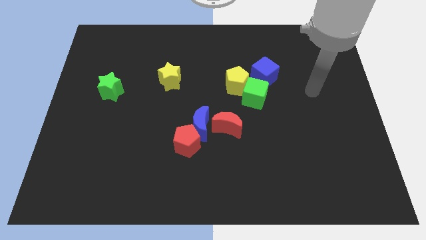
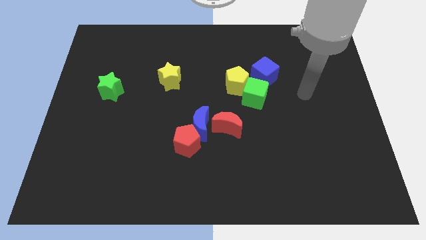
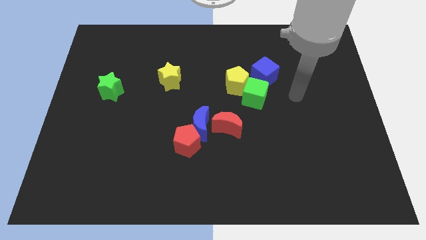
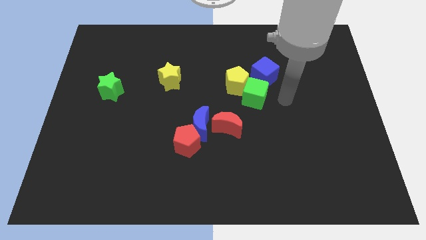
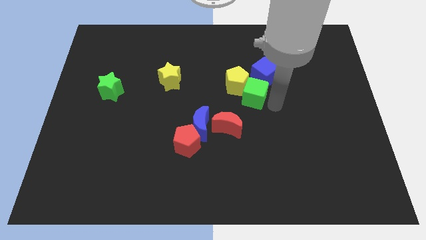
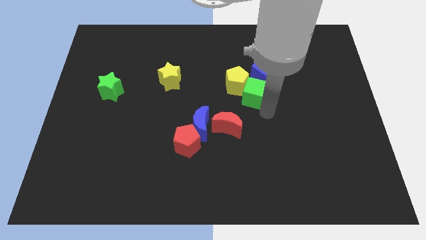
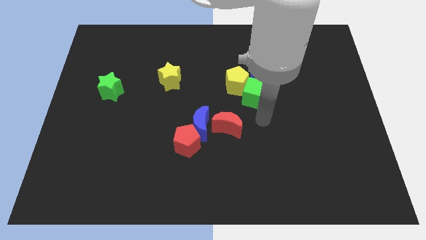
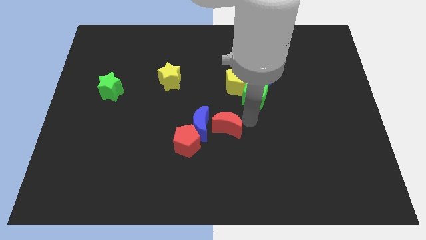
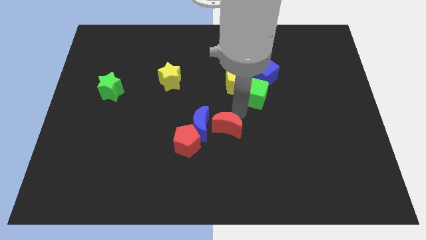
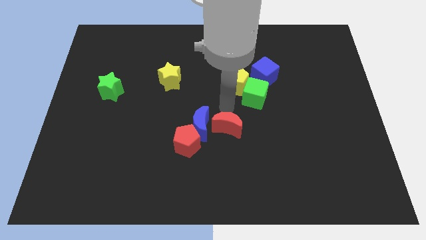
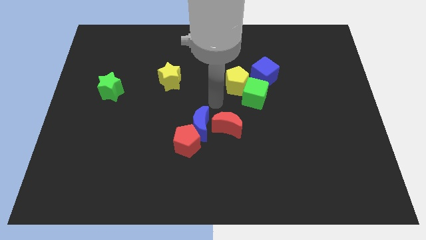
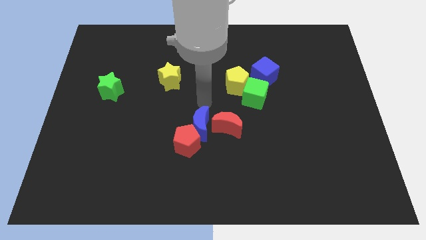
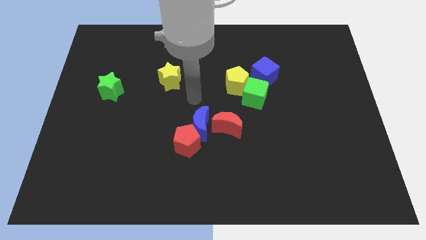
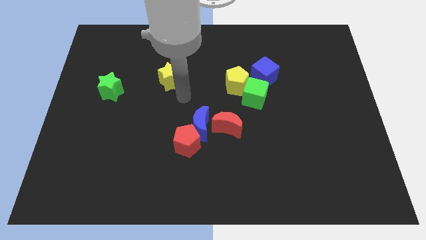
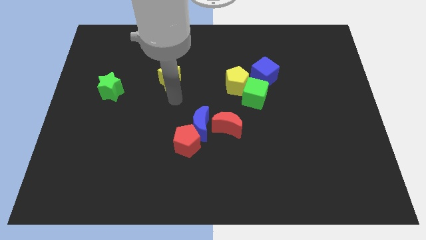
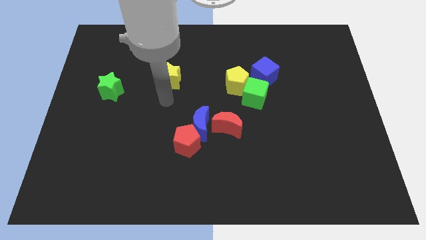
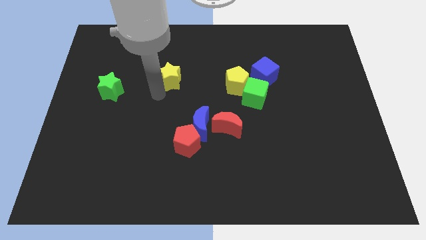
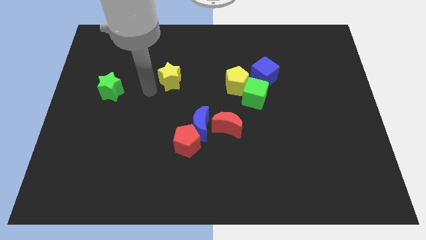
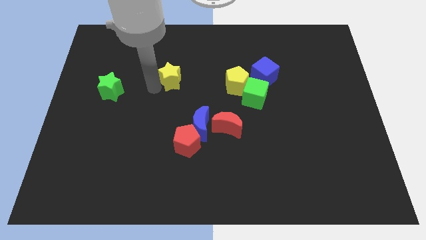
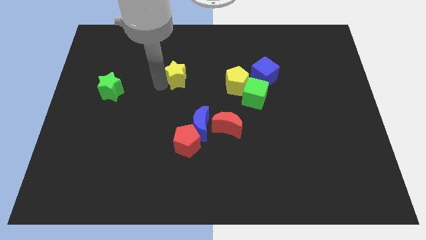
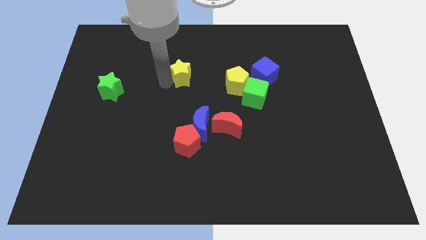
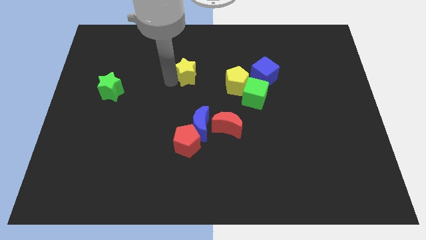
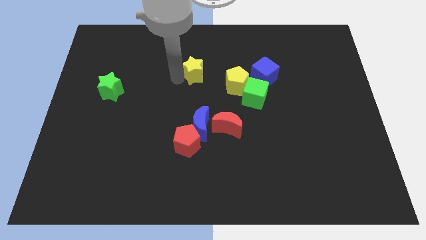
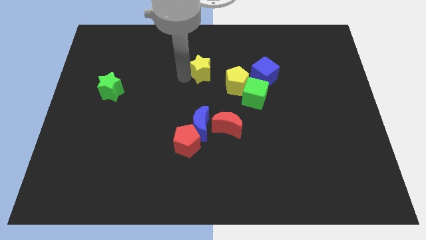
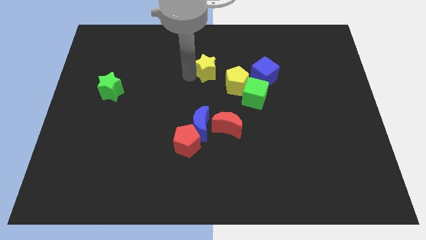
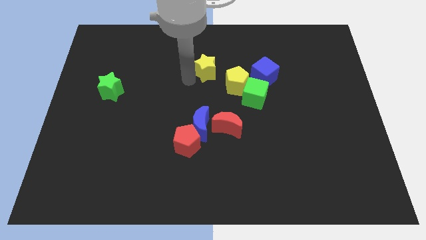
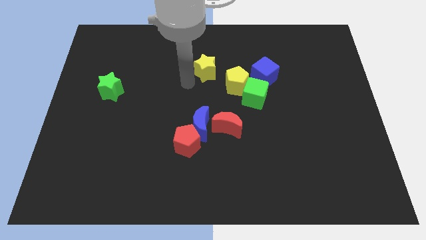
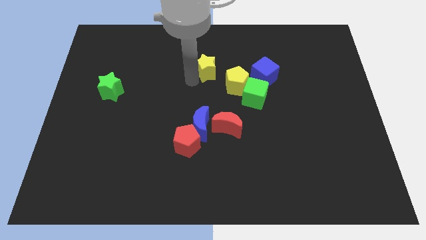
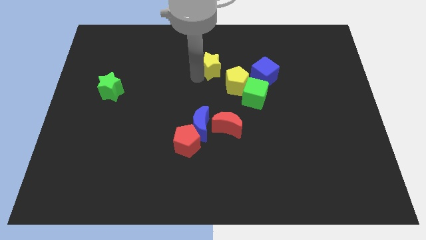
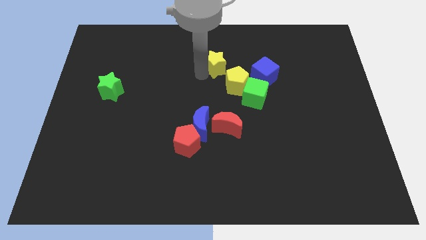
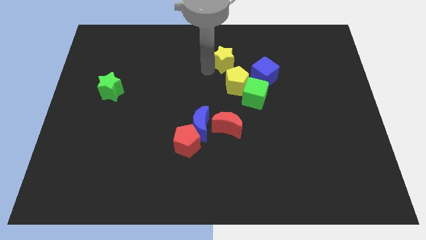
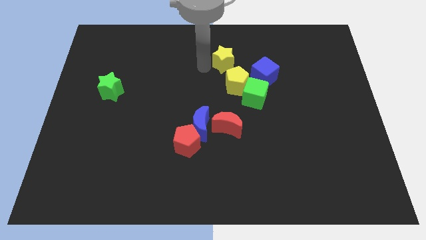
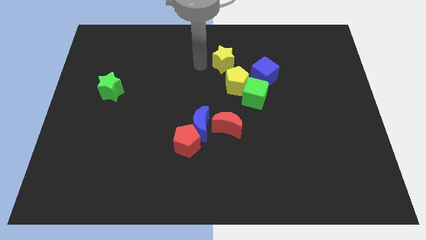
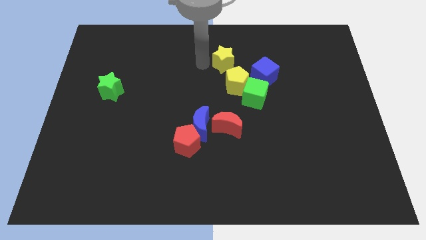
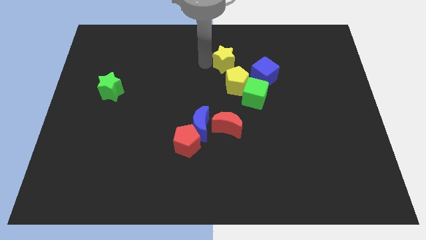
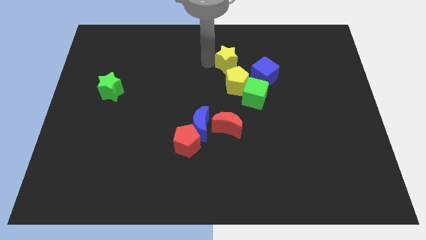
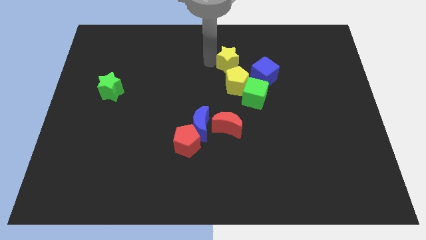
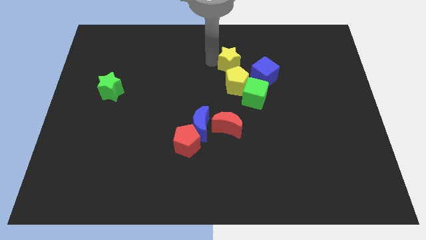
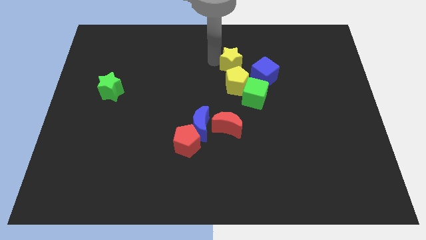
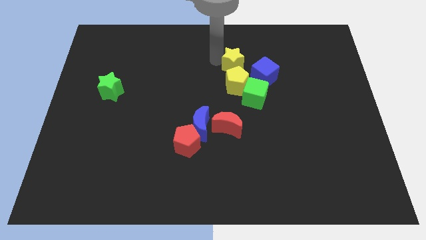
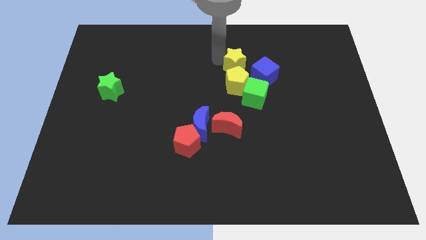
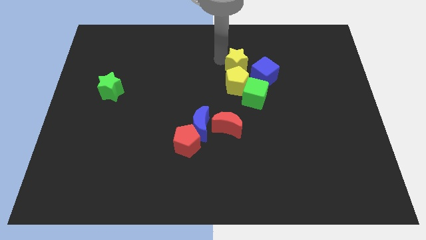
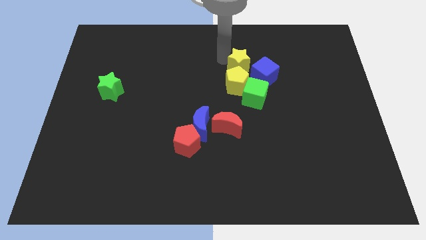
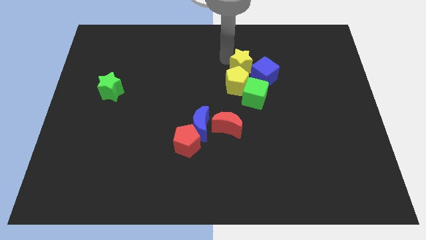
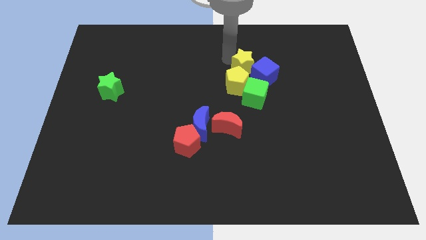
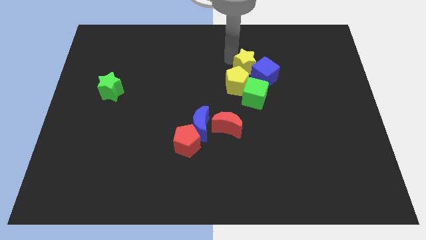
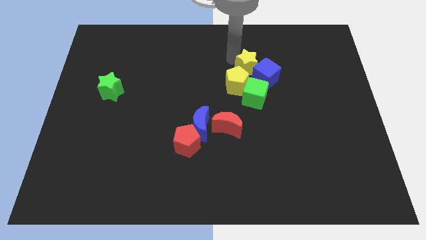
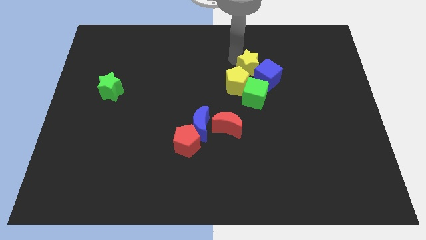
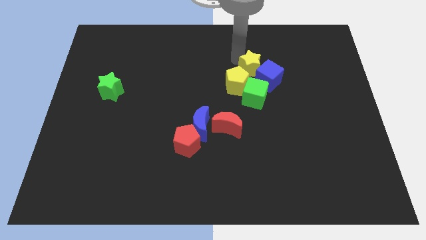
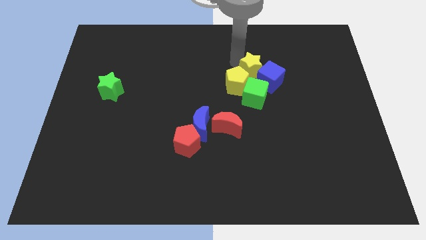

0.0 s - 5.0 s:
slide the yellow star to the right

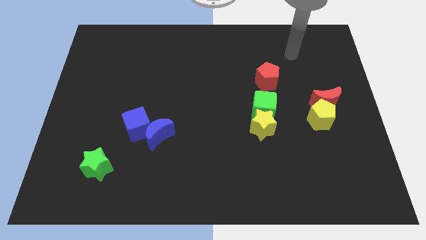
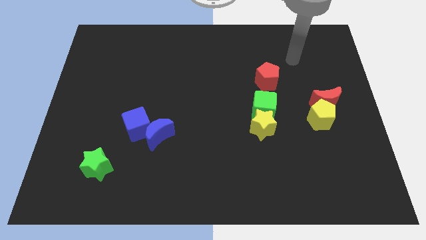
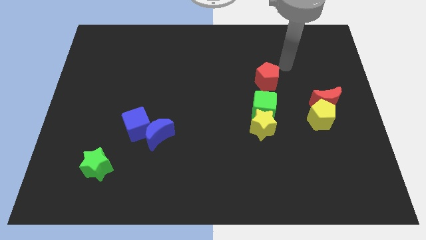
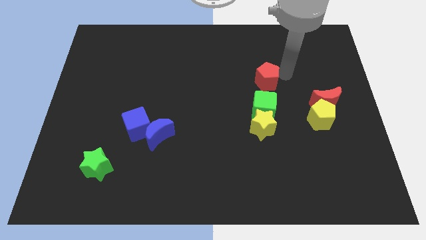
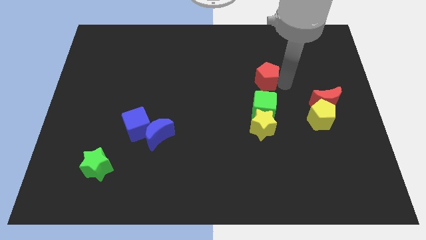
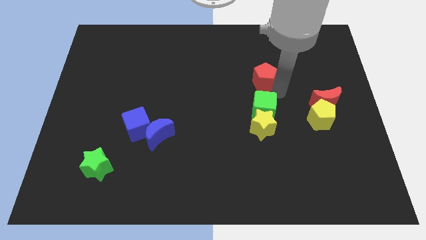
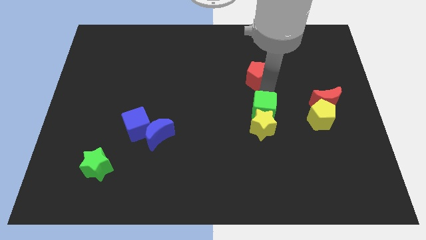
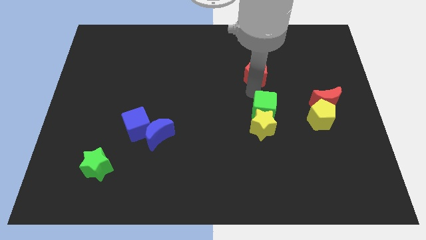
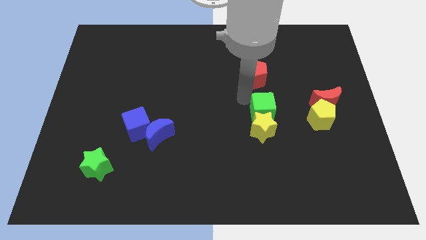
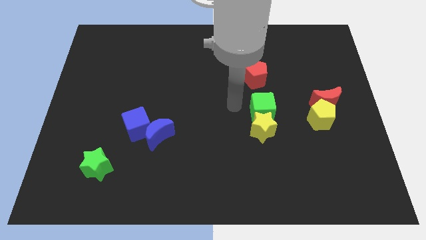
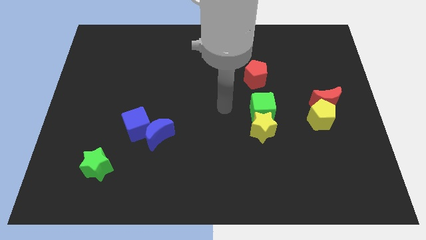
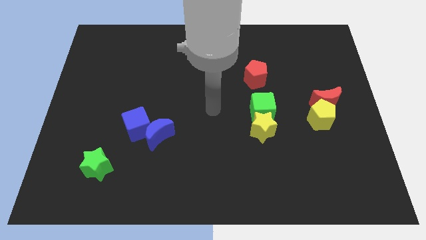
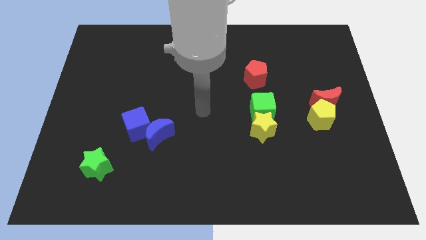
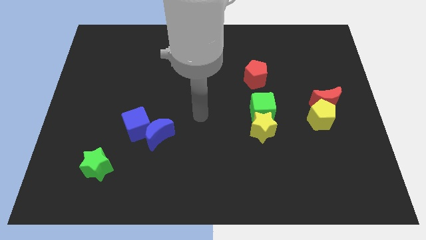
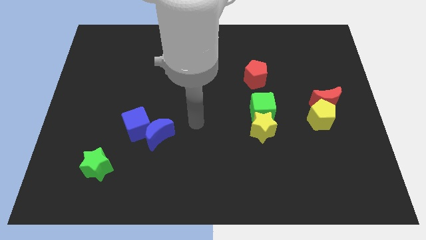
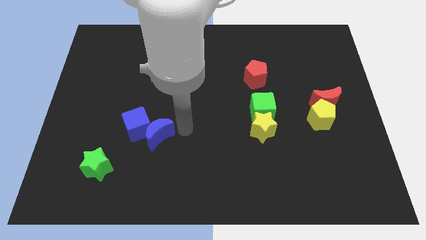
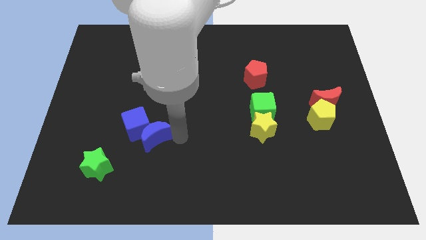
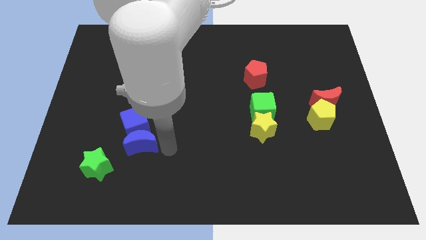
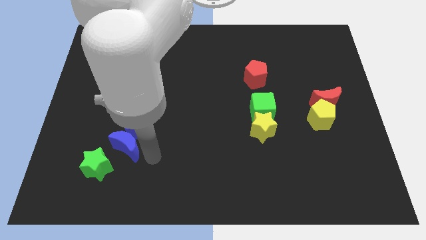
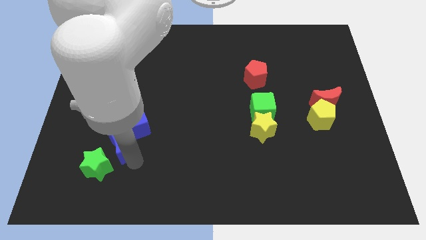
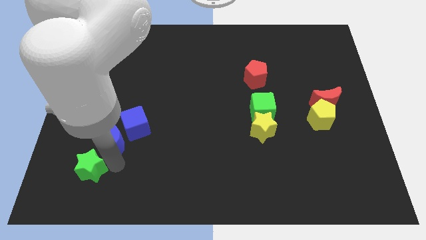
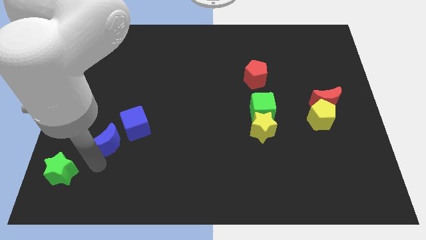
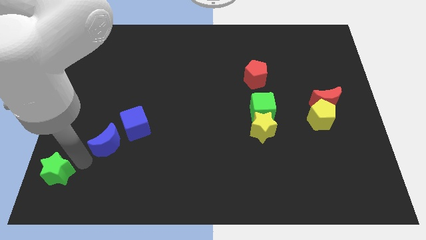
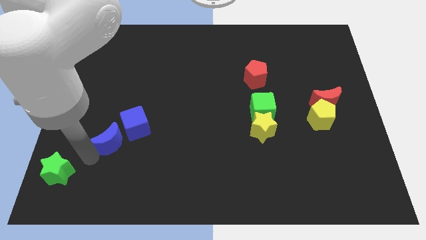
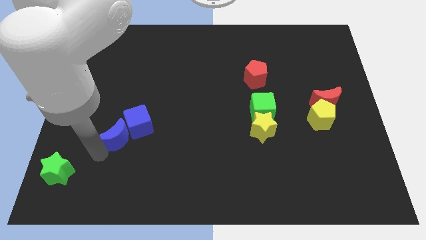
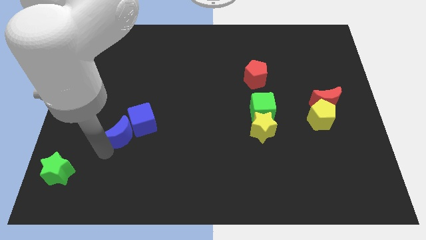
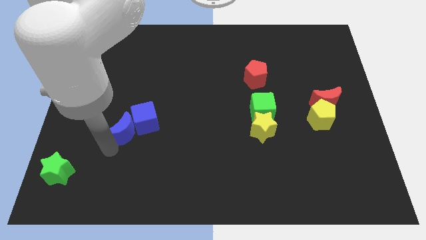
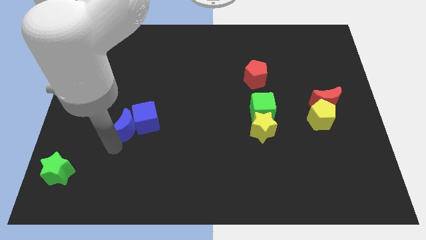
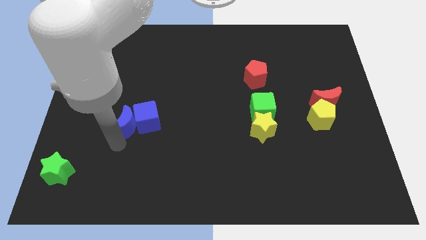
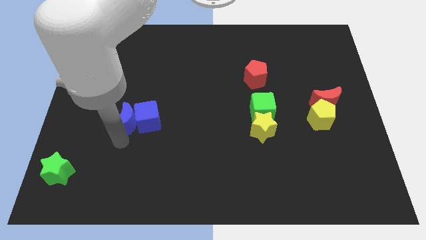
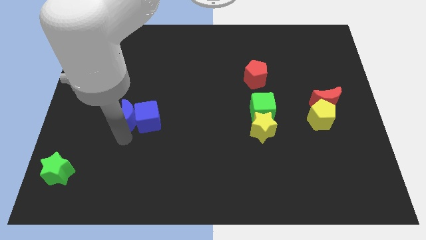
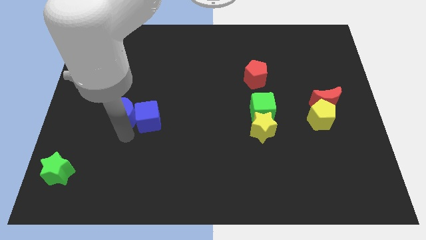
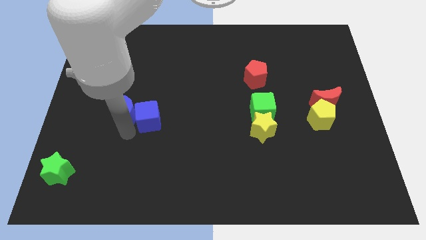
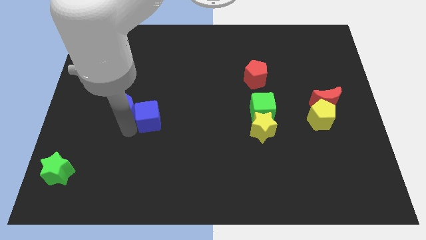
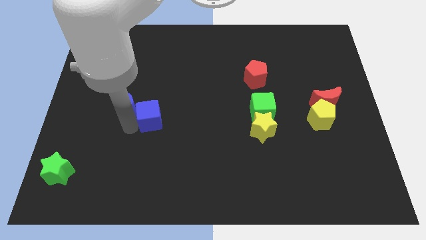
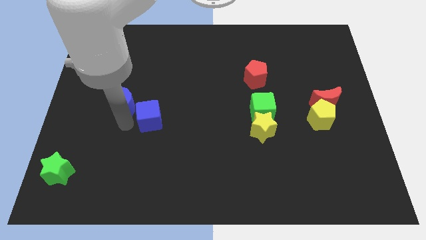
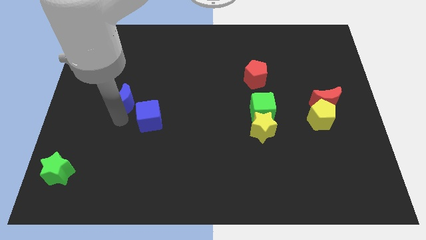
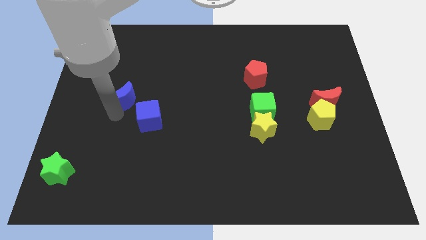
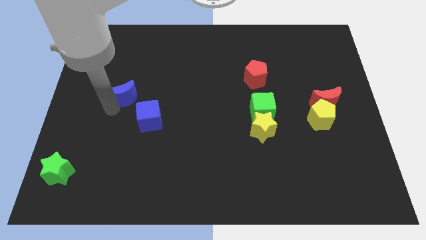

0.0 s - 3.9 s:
slightly push the blue moon up
